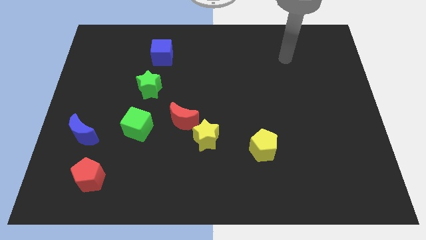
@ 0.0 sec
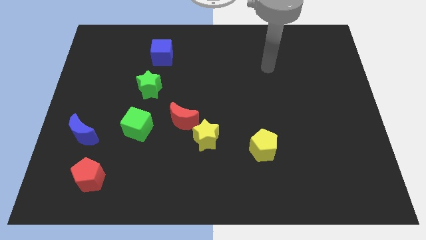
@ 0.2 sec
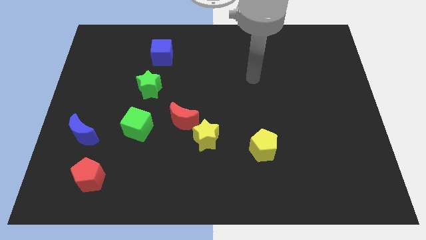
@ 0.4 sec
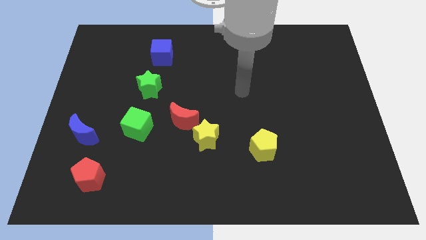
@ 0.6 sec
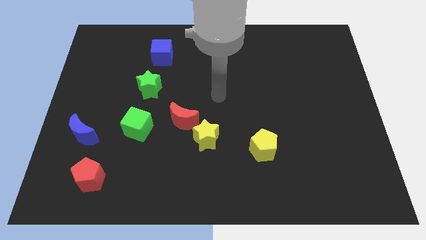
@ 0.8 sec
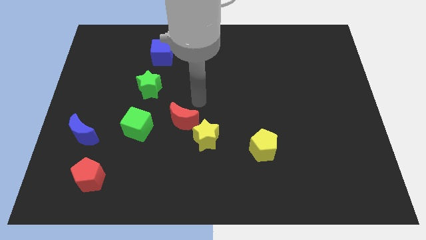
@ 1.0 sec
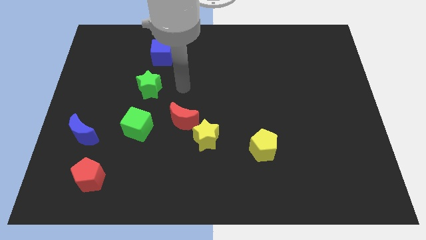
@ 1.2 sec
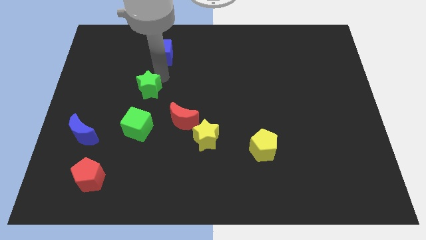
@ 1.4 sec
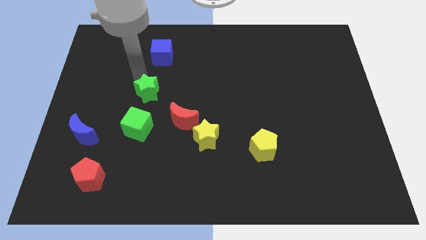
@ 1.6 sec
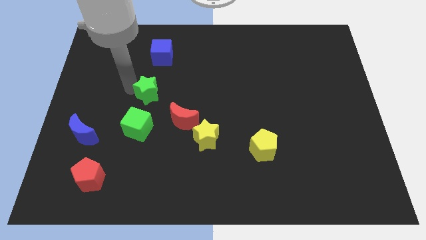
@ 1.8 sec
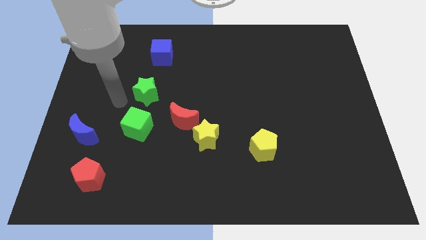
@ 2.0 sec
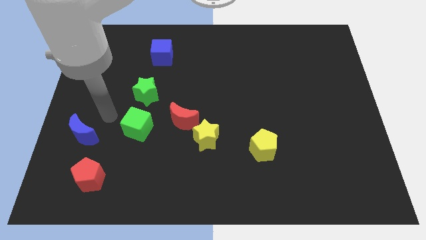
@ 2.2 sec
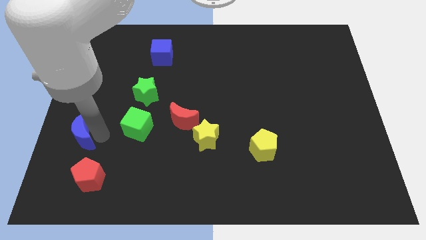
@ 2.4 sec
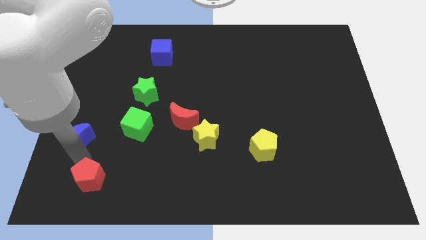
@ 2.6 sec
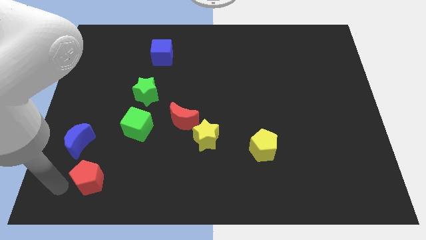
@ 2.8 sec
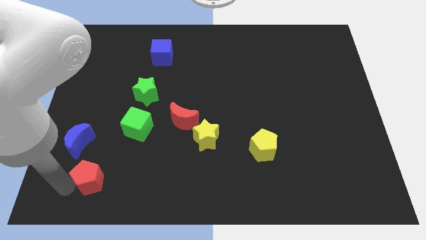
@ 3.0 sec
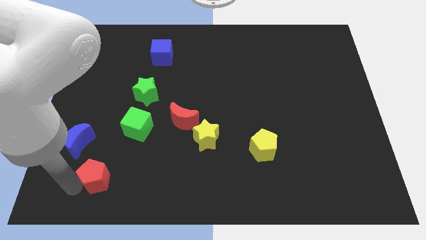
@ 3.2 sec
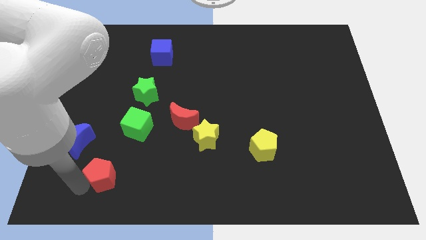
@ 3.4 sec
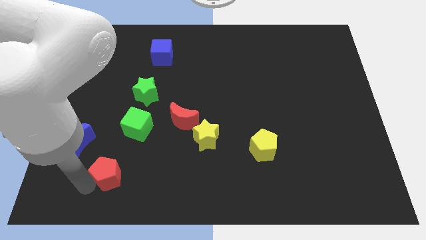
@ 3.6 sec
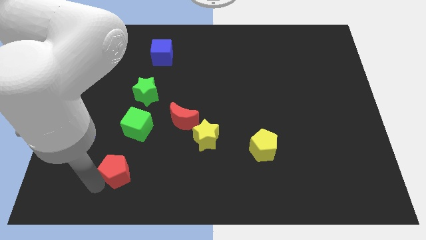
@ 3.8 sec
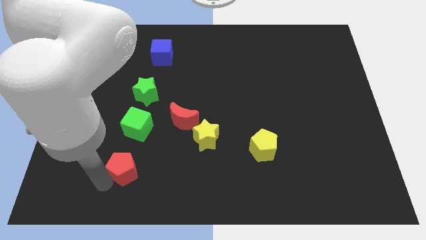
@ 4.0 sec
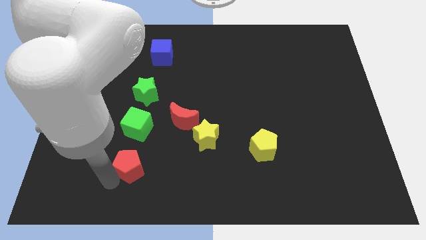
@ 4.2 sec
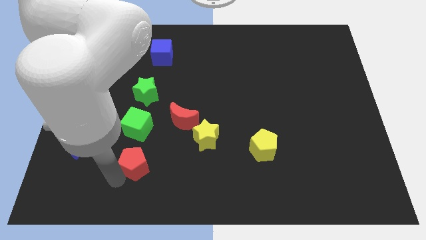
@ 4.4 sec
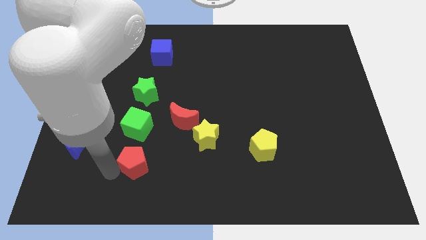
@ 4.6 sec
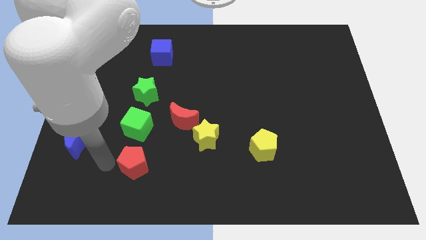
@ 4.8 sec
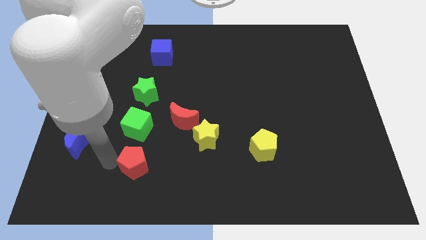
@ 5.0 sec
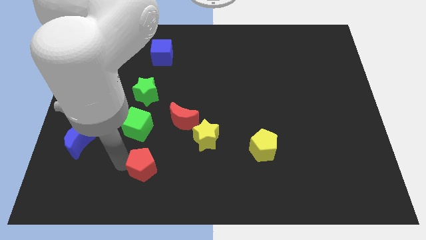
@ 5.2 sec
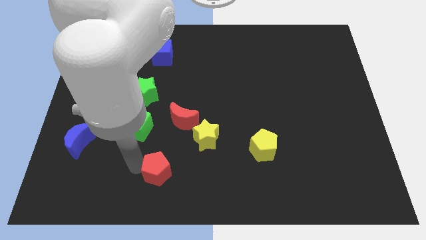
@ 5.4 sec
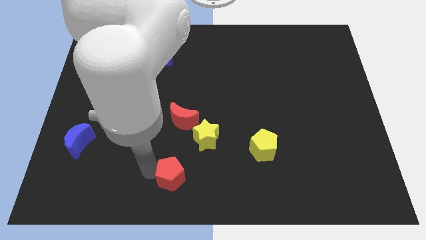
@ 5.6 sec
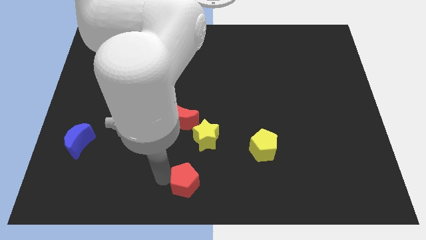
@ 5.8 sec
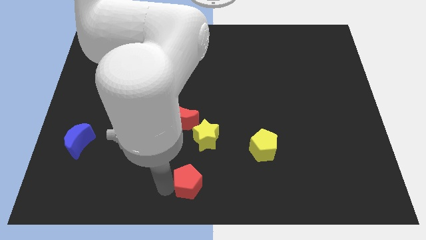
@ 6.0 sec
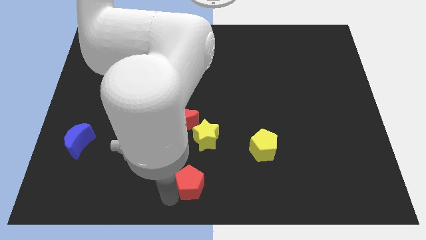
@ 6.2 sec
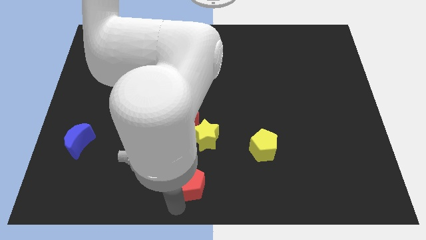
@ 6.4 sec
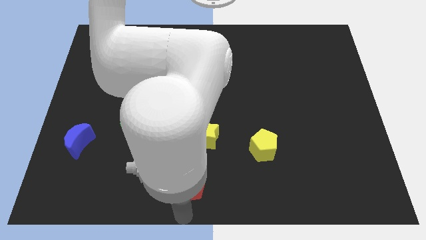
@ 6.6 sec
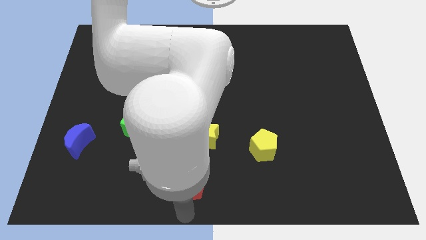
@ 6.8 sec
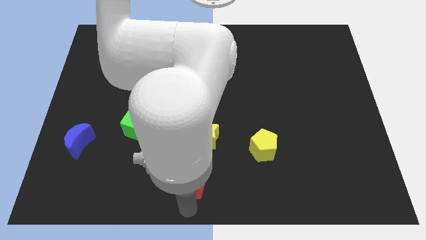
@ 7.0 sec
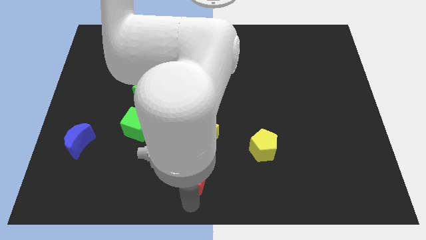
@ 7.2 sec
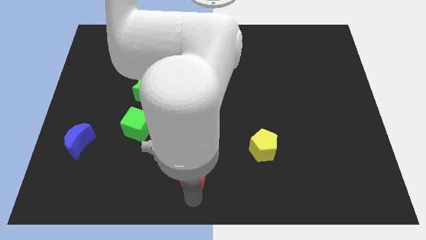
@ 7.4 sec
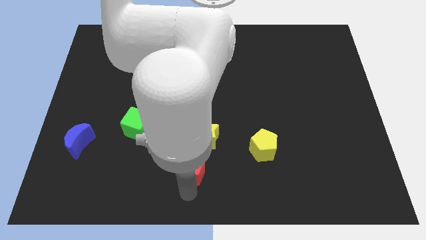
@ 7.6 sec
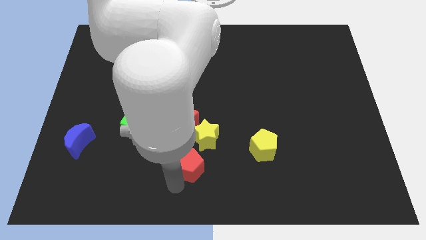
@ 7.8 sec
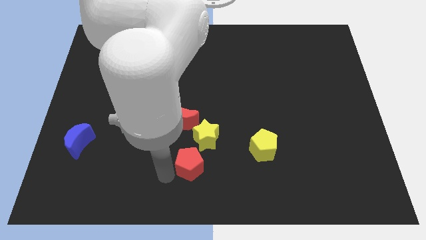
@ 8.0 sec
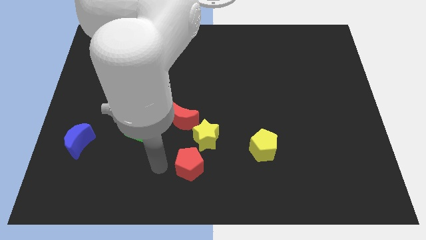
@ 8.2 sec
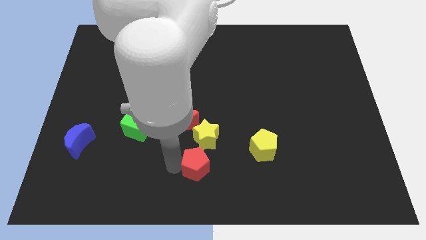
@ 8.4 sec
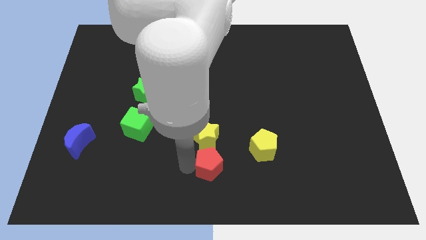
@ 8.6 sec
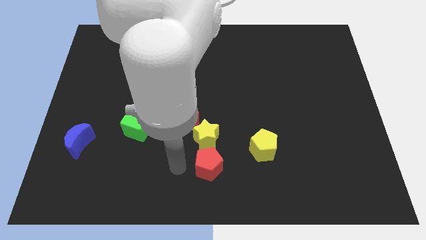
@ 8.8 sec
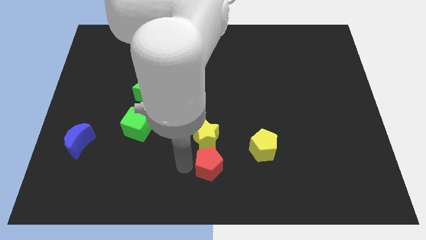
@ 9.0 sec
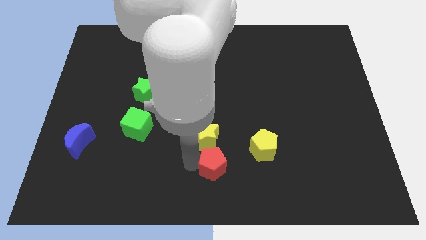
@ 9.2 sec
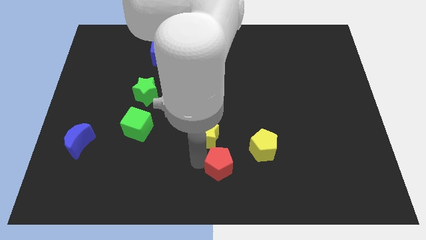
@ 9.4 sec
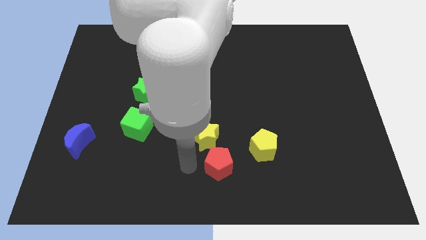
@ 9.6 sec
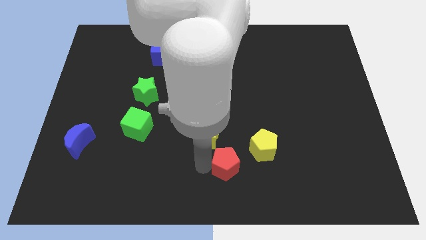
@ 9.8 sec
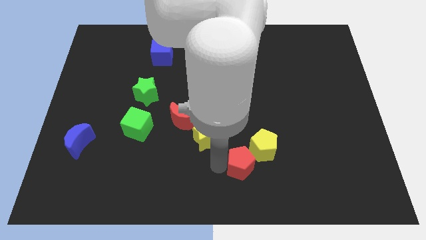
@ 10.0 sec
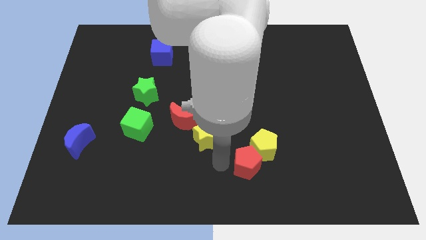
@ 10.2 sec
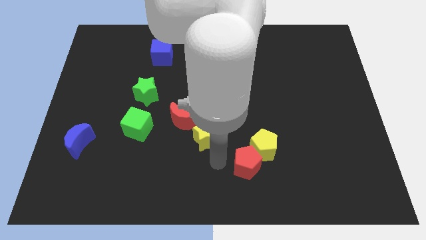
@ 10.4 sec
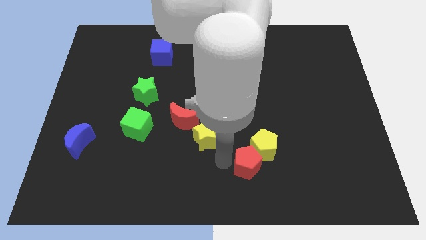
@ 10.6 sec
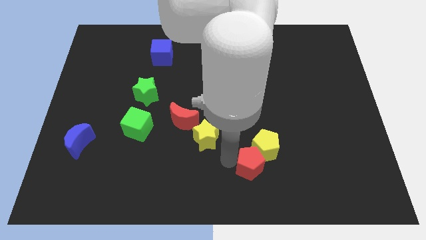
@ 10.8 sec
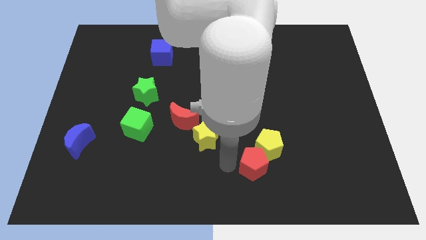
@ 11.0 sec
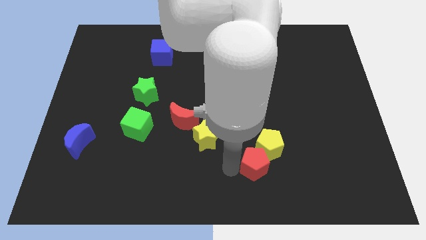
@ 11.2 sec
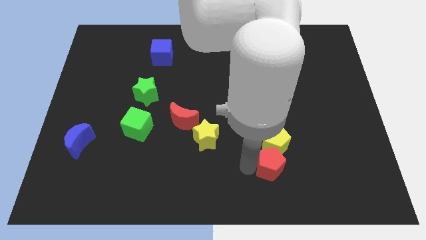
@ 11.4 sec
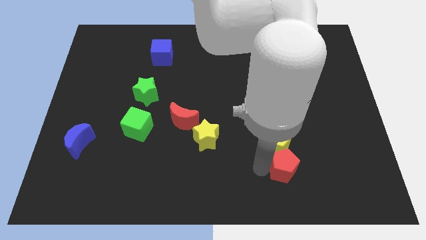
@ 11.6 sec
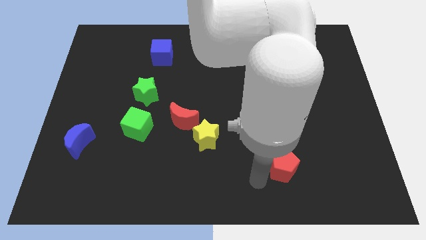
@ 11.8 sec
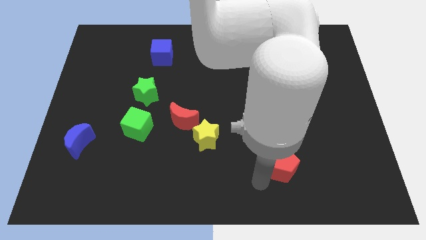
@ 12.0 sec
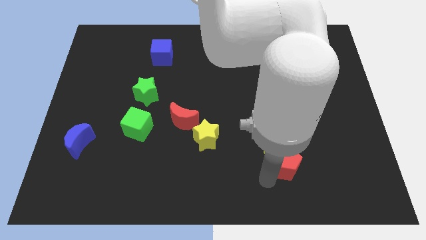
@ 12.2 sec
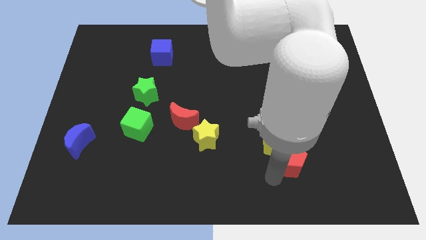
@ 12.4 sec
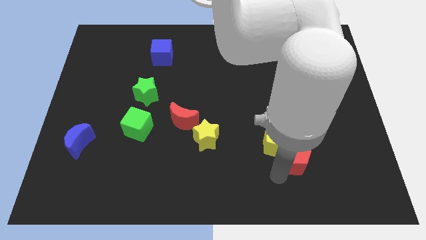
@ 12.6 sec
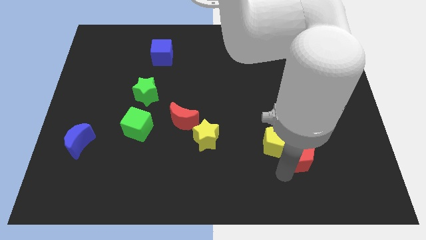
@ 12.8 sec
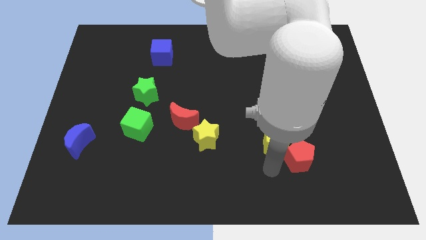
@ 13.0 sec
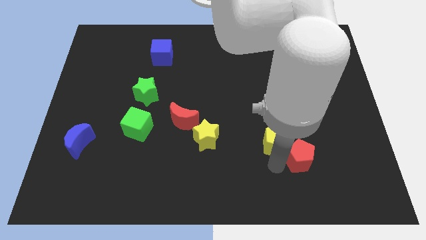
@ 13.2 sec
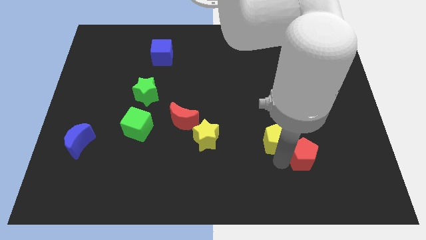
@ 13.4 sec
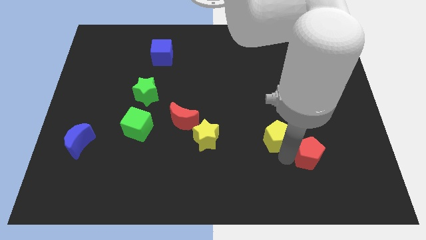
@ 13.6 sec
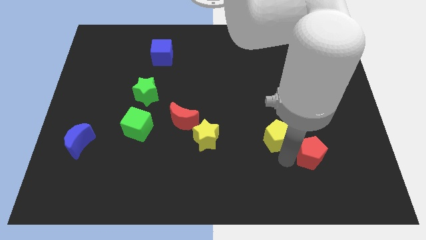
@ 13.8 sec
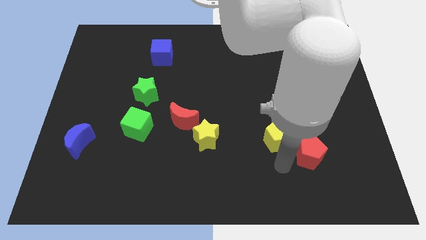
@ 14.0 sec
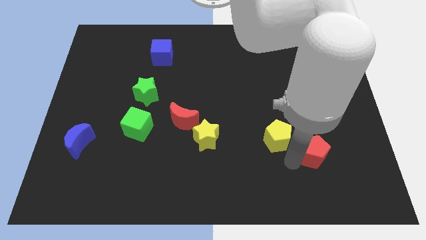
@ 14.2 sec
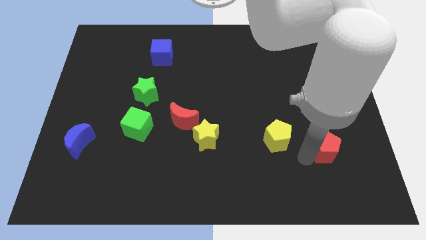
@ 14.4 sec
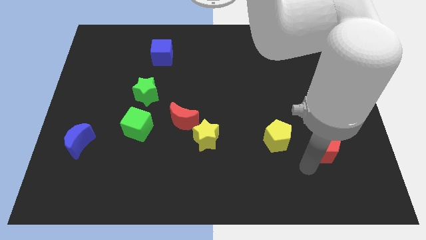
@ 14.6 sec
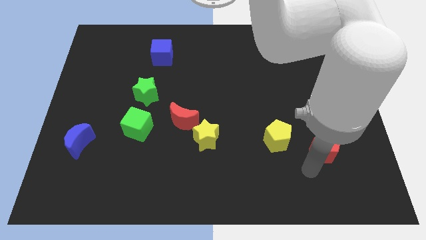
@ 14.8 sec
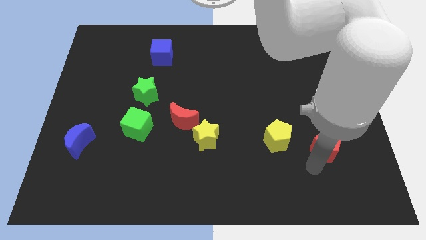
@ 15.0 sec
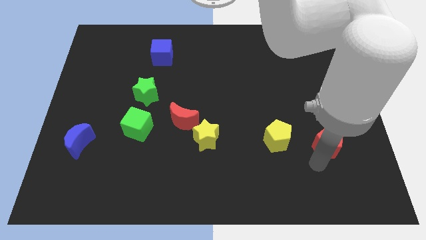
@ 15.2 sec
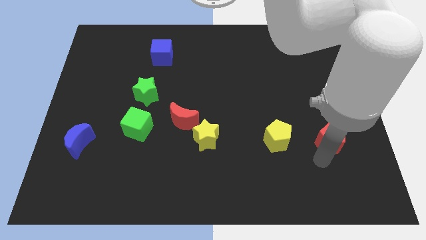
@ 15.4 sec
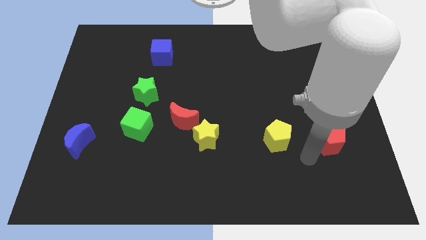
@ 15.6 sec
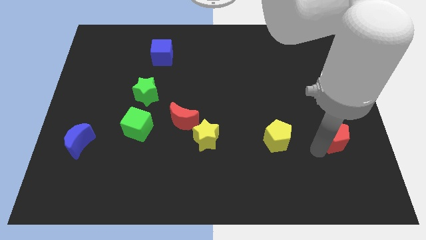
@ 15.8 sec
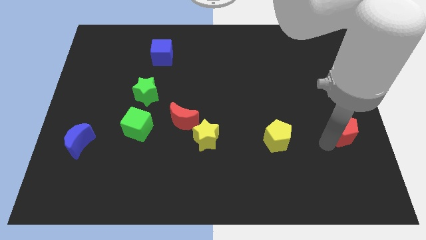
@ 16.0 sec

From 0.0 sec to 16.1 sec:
slide the red pentagon to the center right
